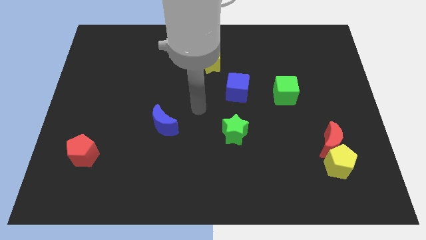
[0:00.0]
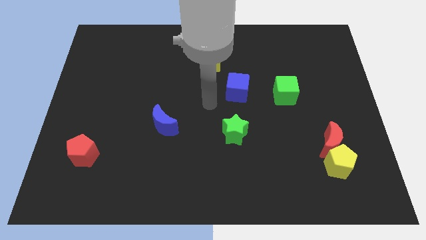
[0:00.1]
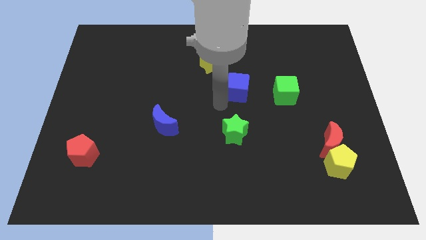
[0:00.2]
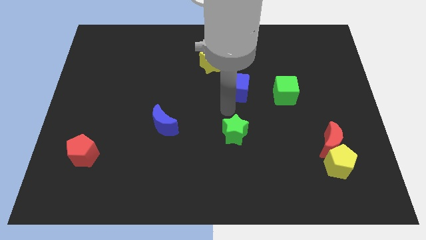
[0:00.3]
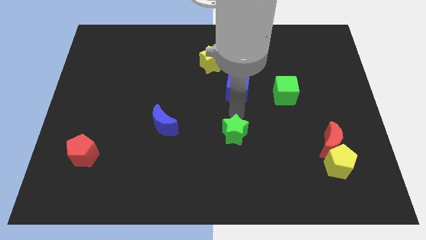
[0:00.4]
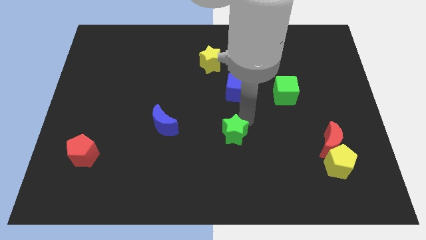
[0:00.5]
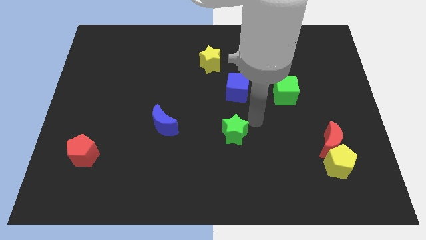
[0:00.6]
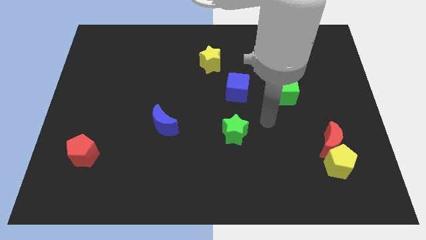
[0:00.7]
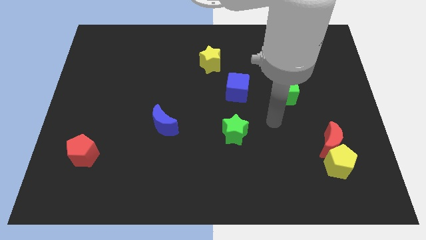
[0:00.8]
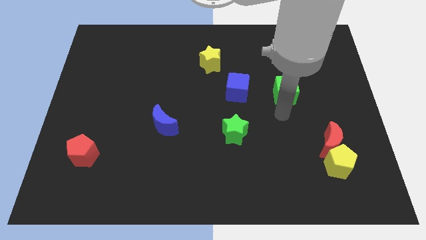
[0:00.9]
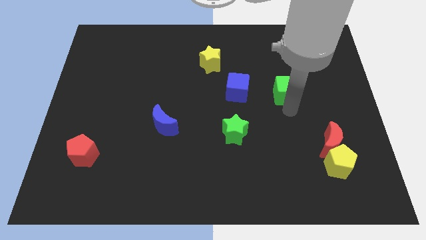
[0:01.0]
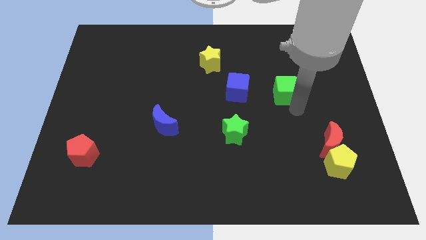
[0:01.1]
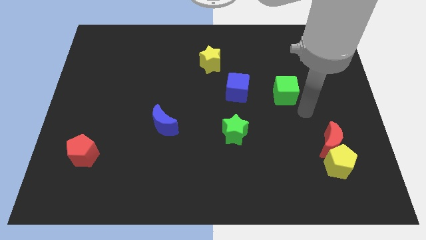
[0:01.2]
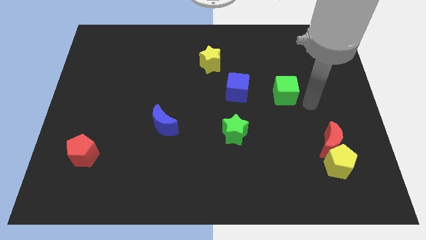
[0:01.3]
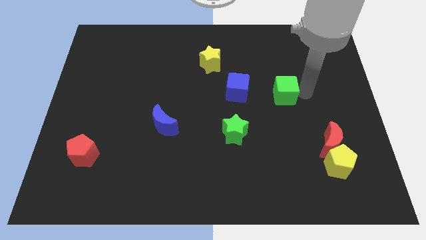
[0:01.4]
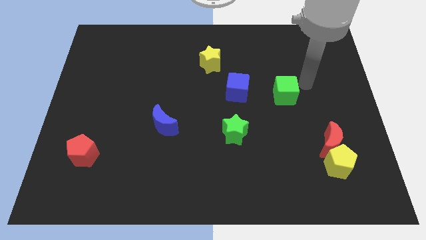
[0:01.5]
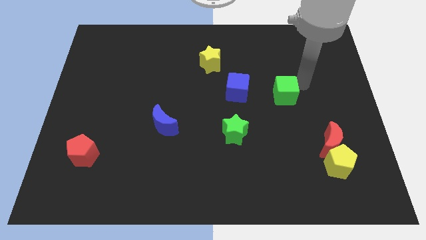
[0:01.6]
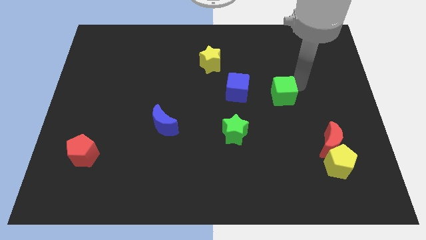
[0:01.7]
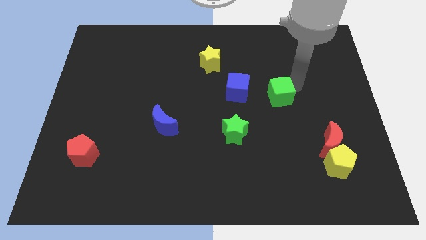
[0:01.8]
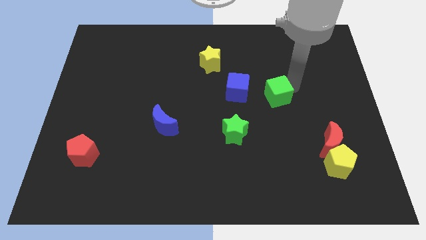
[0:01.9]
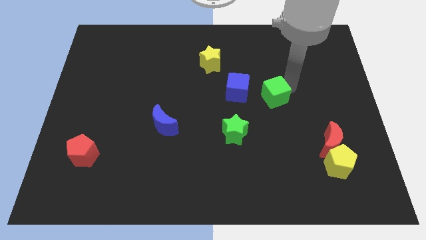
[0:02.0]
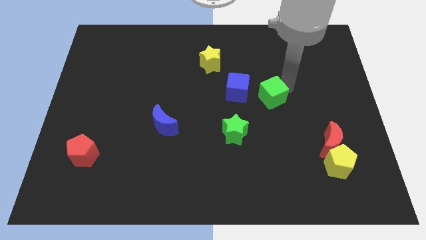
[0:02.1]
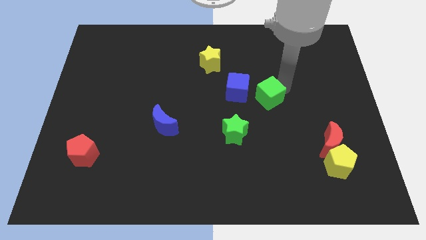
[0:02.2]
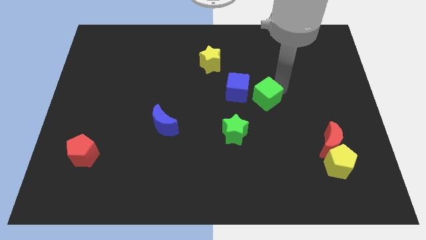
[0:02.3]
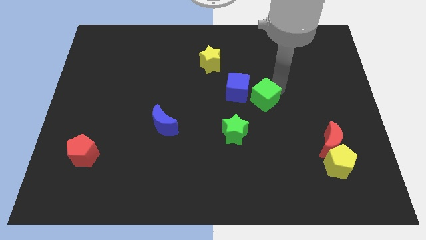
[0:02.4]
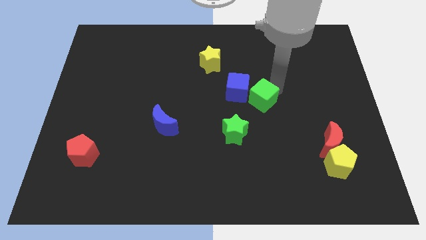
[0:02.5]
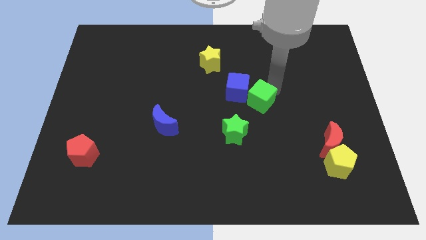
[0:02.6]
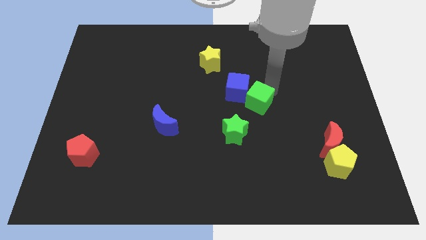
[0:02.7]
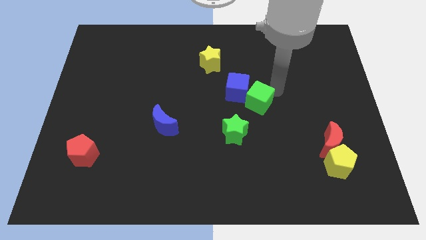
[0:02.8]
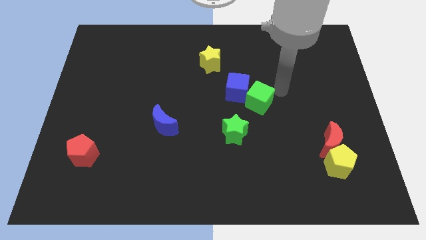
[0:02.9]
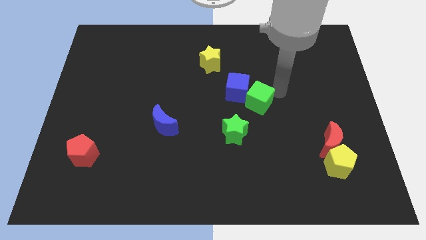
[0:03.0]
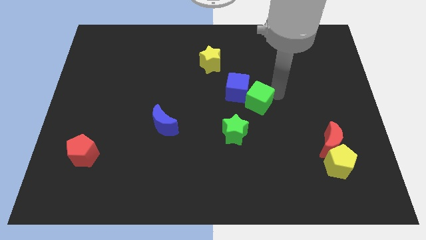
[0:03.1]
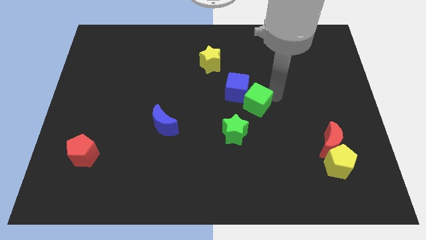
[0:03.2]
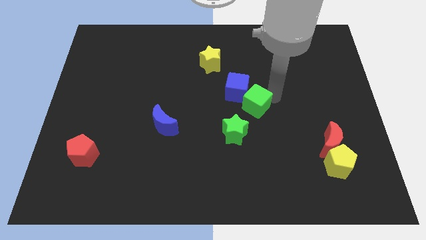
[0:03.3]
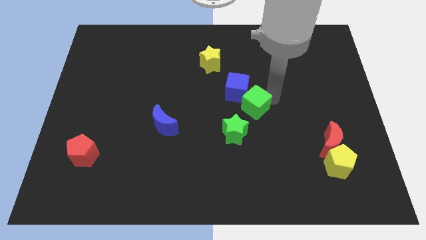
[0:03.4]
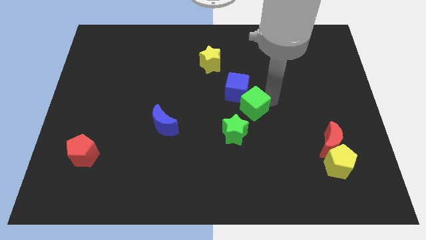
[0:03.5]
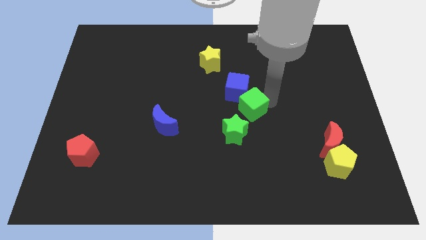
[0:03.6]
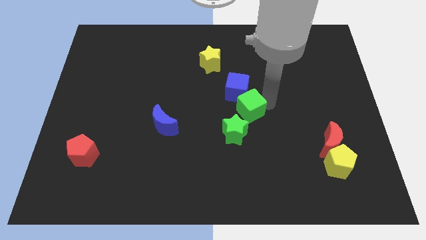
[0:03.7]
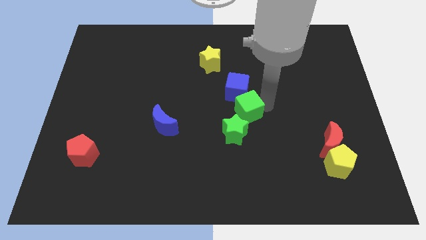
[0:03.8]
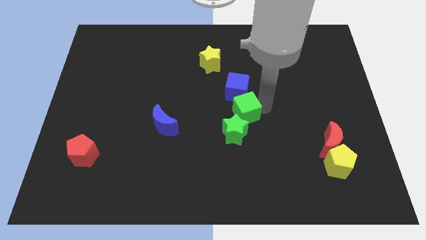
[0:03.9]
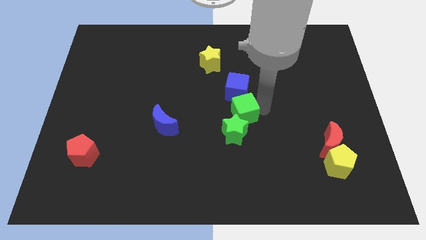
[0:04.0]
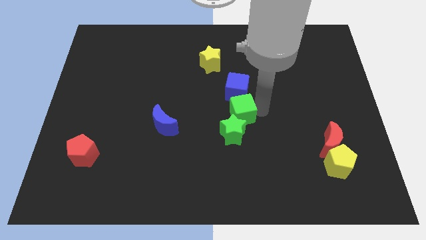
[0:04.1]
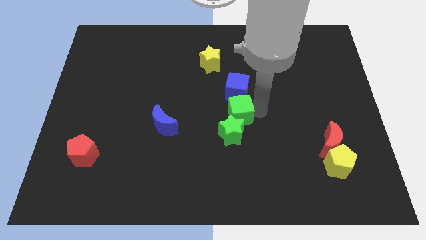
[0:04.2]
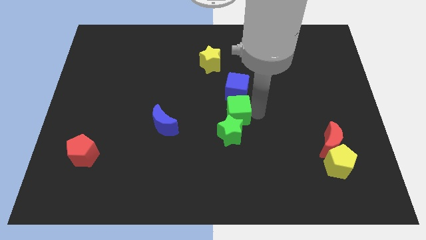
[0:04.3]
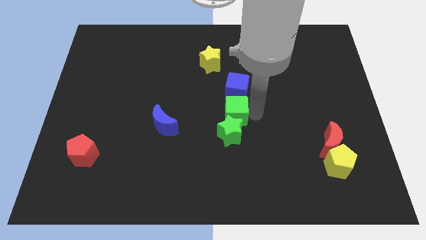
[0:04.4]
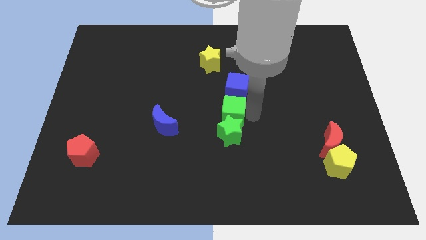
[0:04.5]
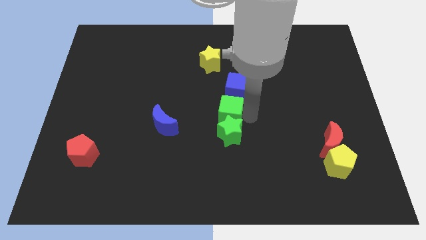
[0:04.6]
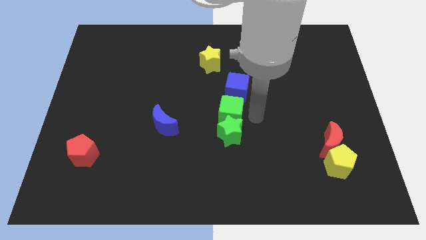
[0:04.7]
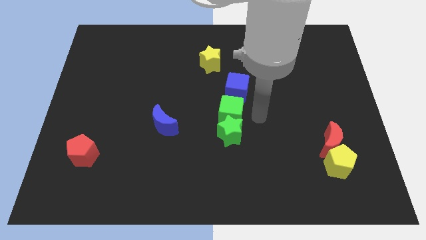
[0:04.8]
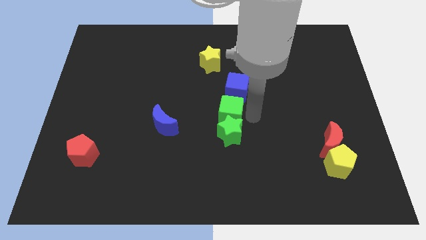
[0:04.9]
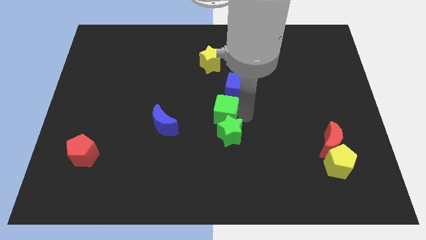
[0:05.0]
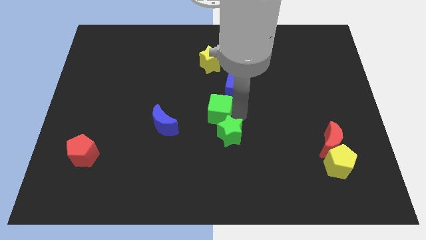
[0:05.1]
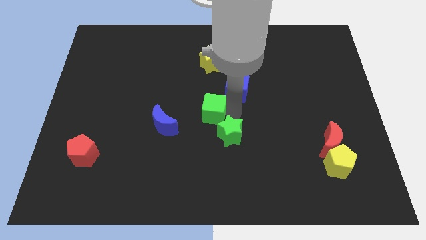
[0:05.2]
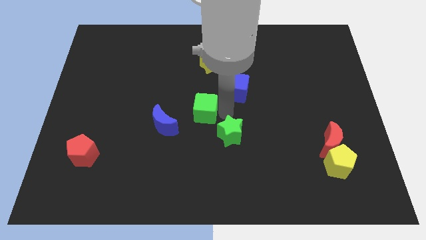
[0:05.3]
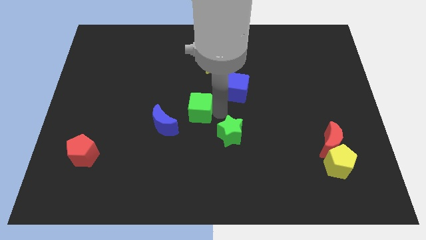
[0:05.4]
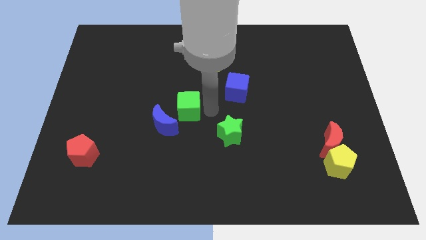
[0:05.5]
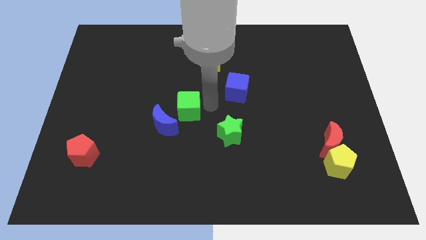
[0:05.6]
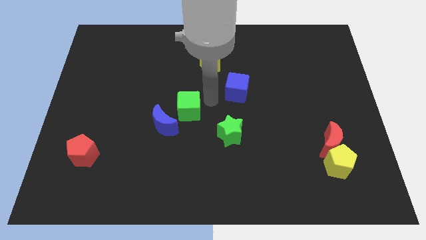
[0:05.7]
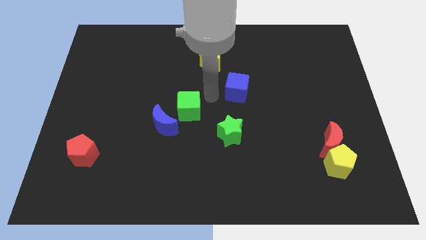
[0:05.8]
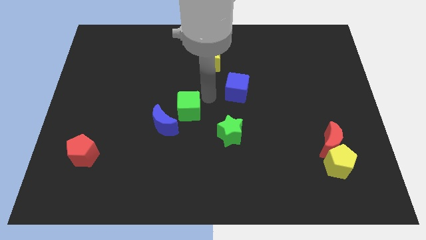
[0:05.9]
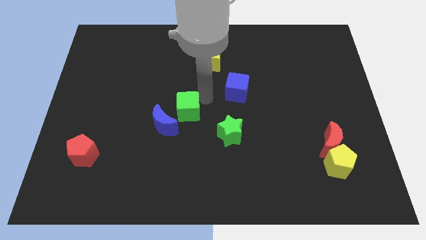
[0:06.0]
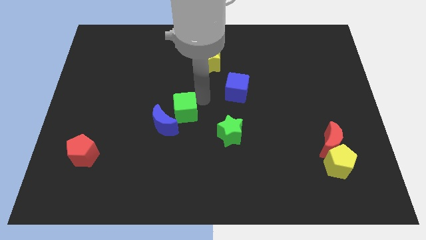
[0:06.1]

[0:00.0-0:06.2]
slide the green cube to the blue moon
